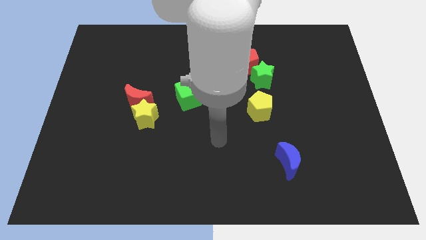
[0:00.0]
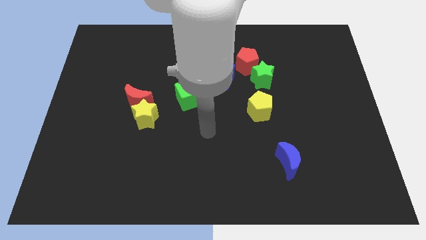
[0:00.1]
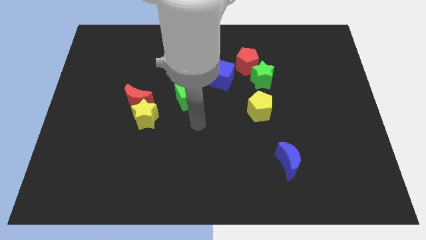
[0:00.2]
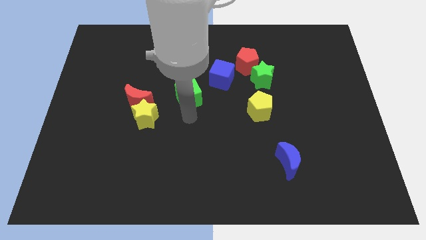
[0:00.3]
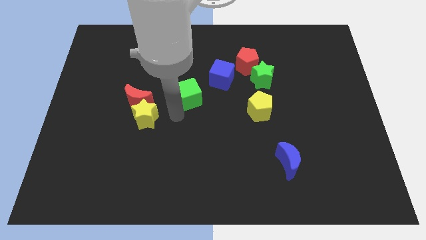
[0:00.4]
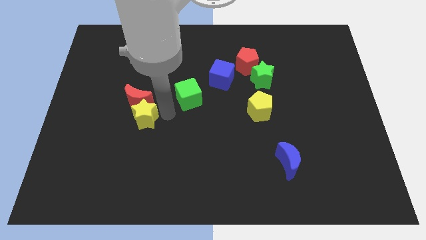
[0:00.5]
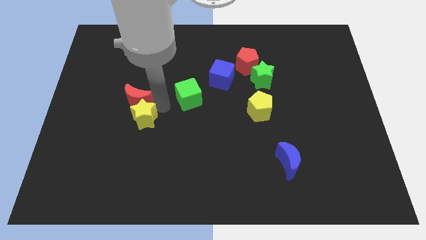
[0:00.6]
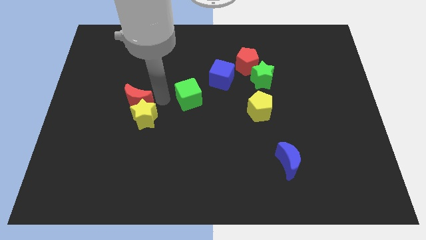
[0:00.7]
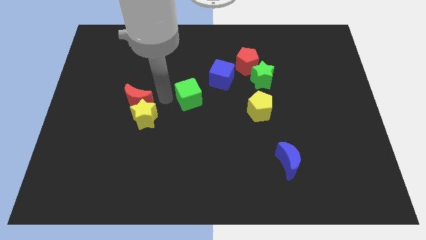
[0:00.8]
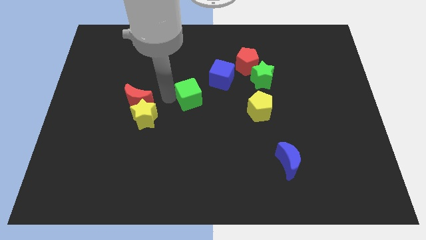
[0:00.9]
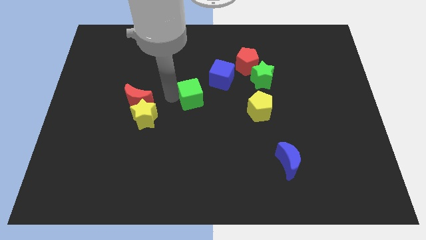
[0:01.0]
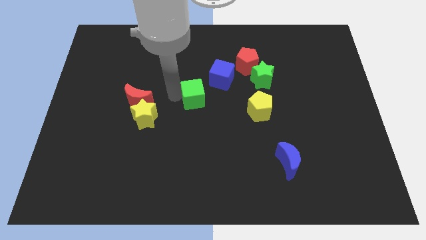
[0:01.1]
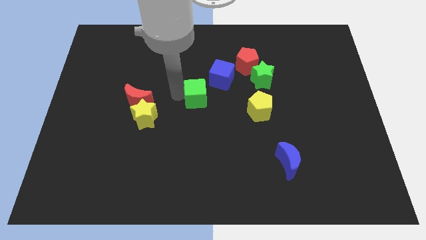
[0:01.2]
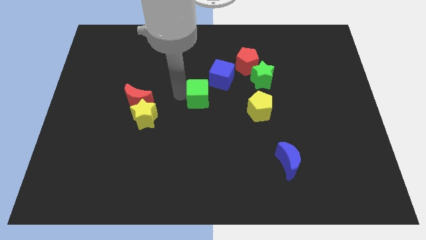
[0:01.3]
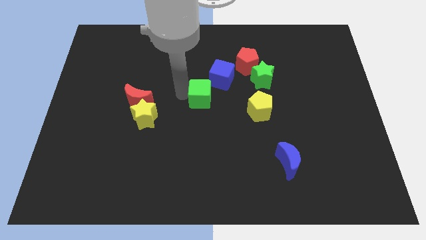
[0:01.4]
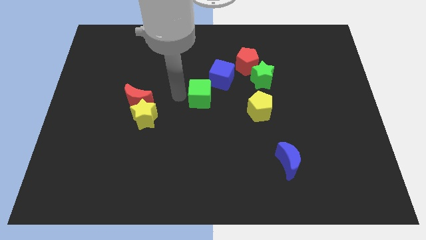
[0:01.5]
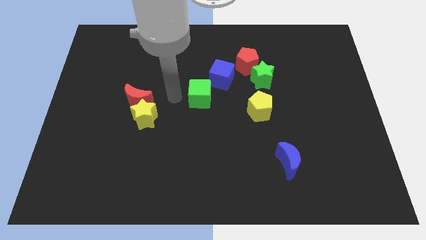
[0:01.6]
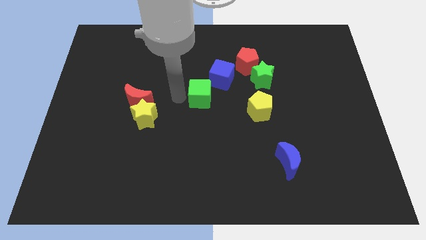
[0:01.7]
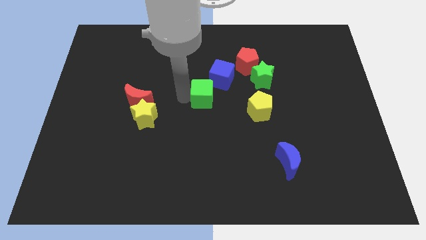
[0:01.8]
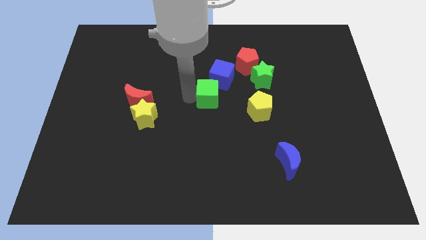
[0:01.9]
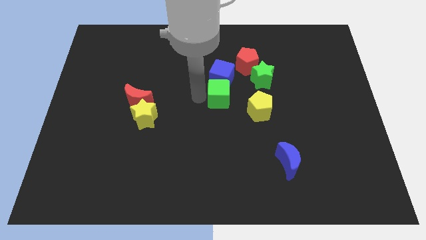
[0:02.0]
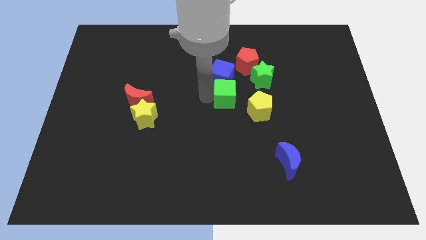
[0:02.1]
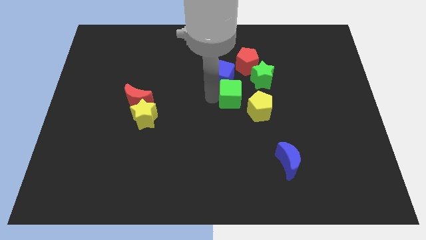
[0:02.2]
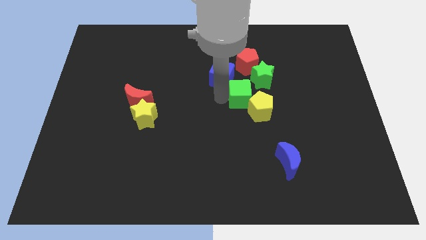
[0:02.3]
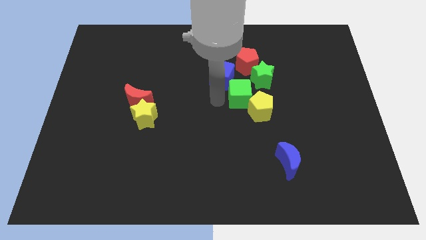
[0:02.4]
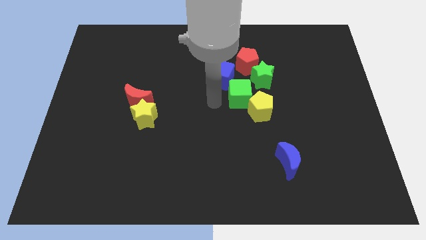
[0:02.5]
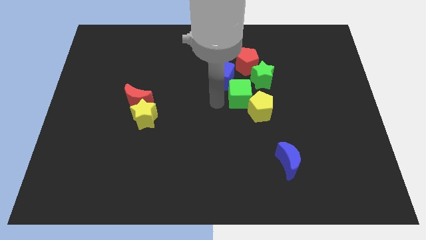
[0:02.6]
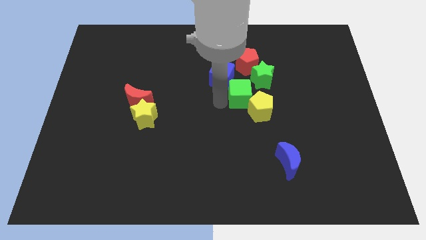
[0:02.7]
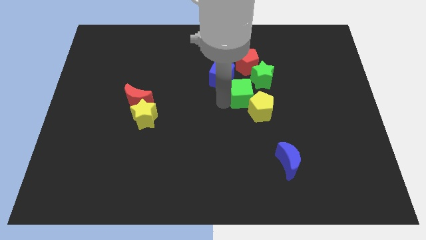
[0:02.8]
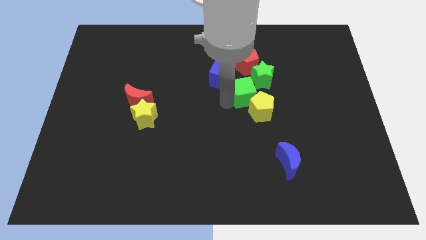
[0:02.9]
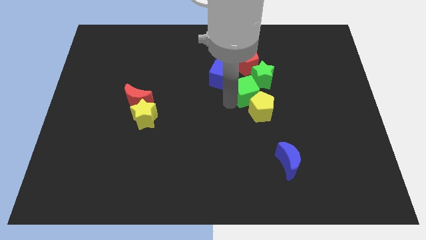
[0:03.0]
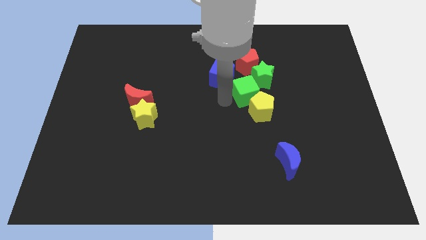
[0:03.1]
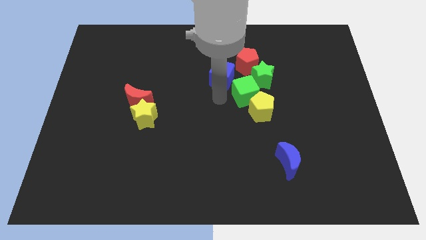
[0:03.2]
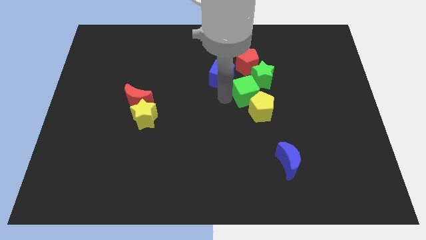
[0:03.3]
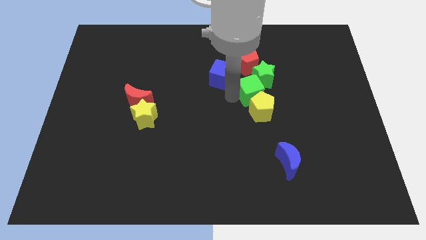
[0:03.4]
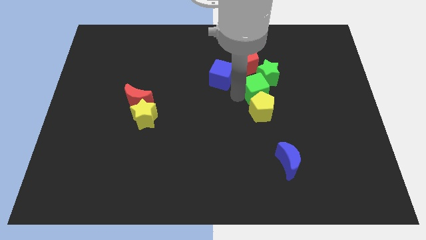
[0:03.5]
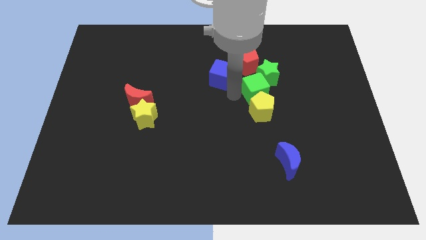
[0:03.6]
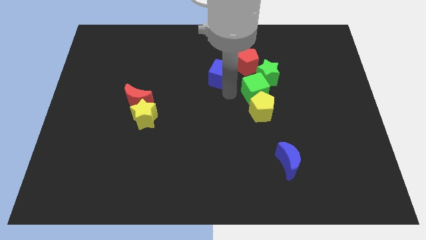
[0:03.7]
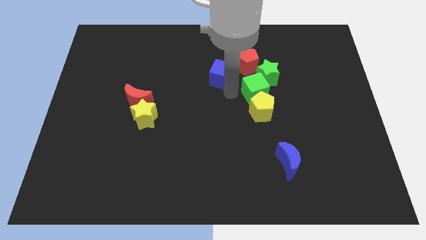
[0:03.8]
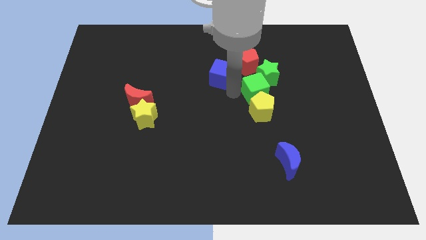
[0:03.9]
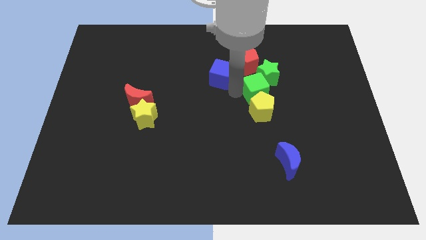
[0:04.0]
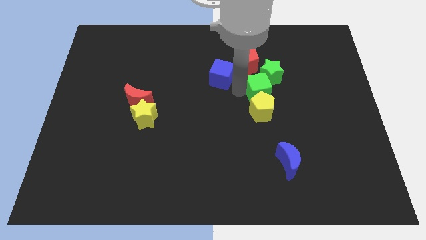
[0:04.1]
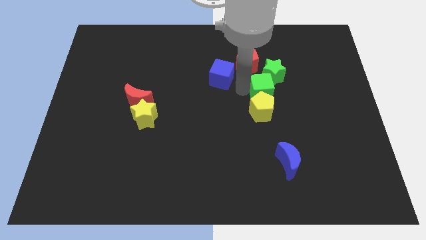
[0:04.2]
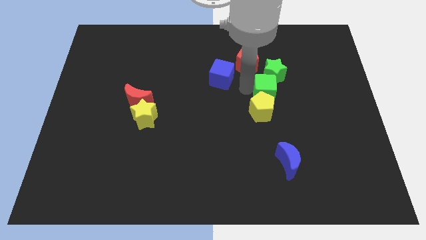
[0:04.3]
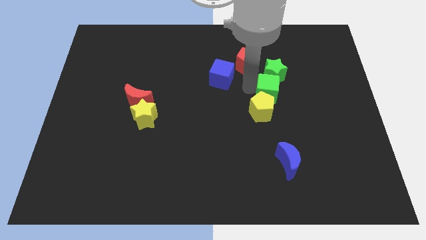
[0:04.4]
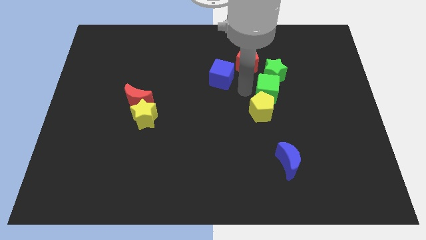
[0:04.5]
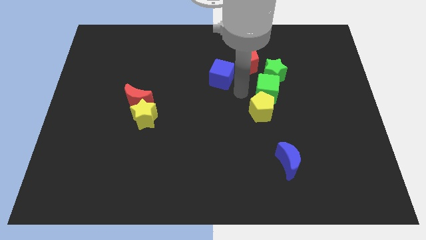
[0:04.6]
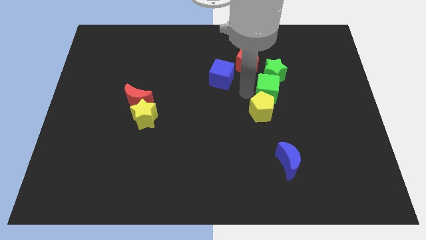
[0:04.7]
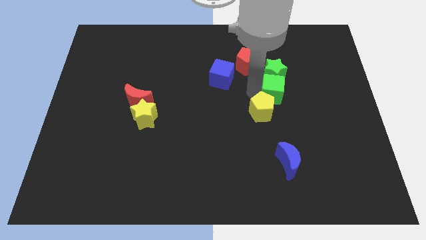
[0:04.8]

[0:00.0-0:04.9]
slide the green cube right

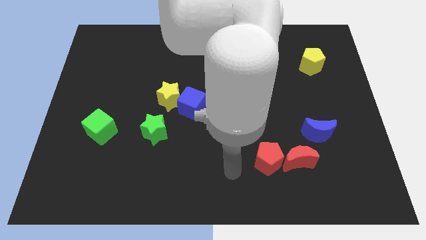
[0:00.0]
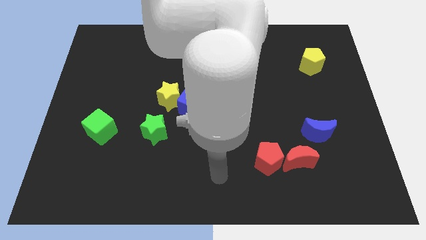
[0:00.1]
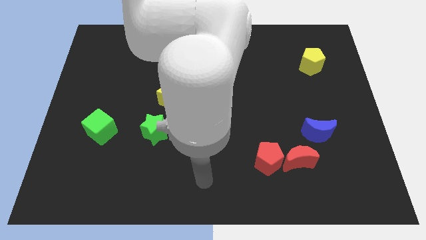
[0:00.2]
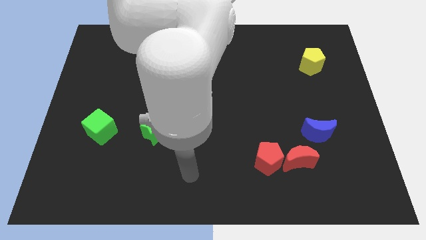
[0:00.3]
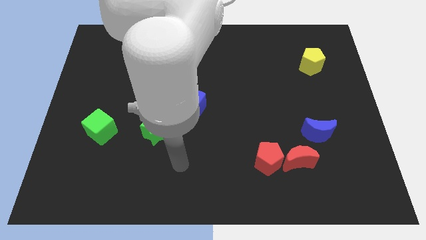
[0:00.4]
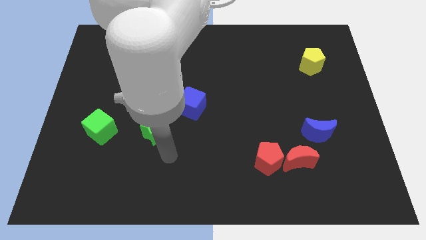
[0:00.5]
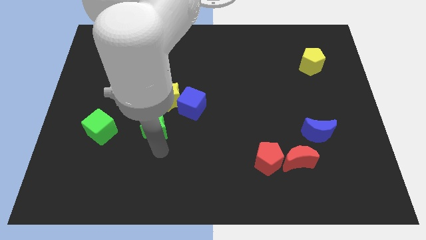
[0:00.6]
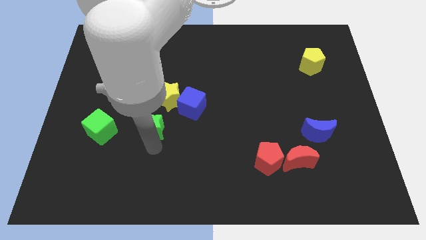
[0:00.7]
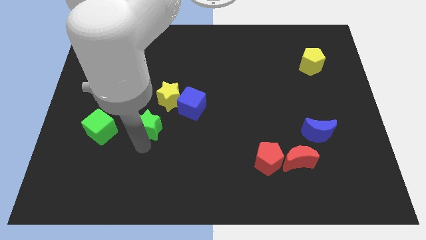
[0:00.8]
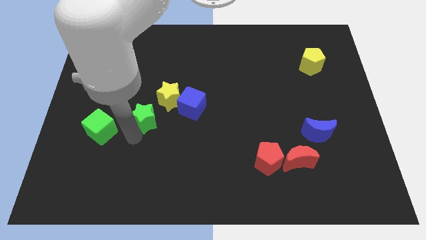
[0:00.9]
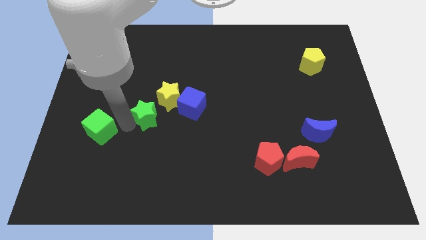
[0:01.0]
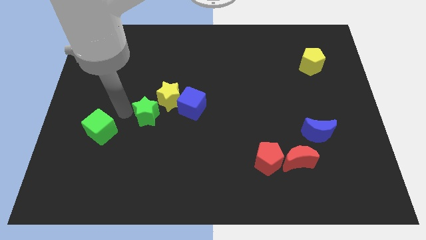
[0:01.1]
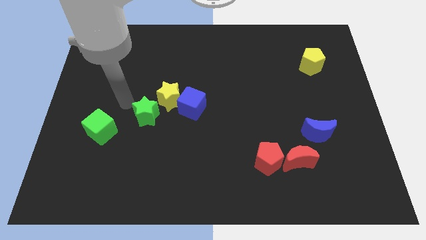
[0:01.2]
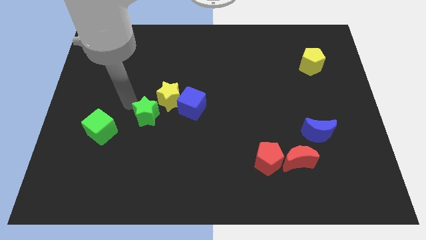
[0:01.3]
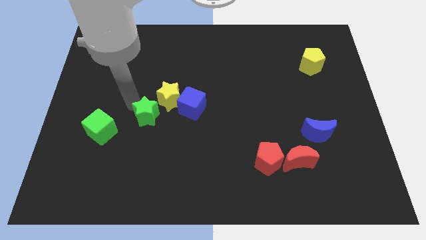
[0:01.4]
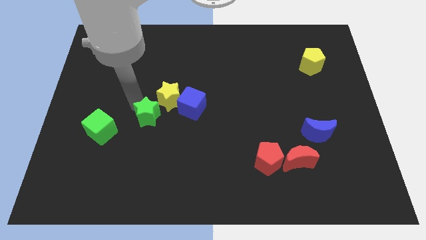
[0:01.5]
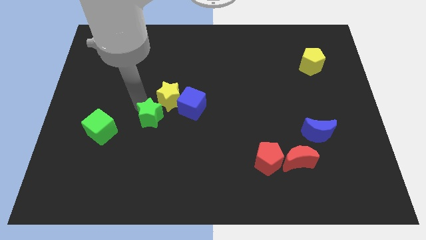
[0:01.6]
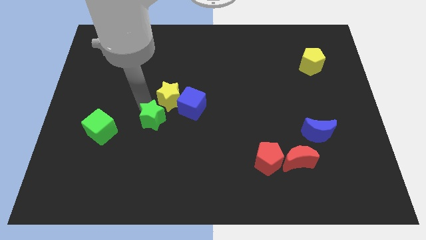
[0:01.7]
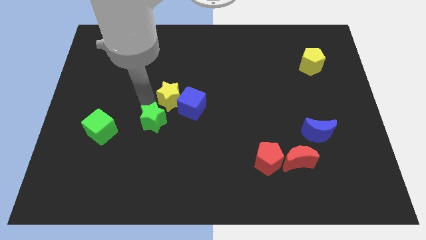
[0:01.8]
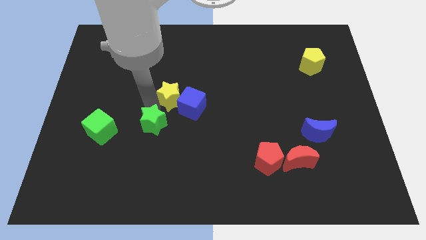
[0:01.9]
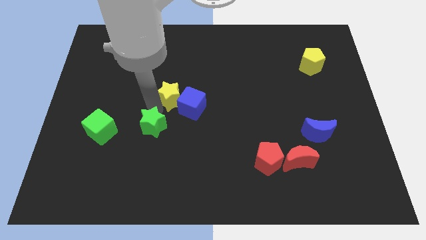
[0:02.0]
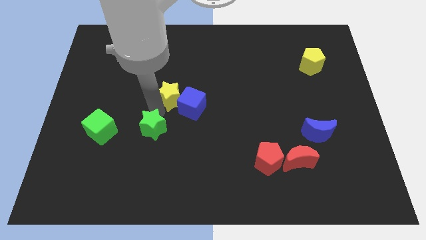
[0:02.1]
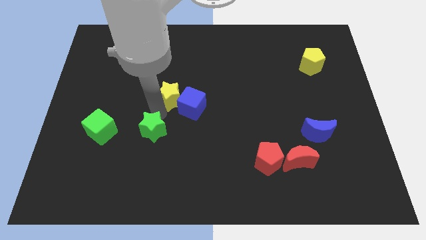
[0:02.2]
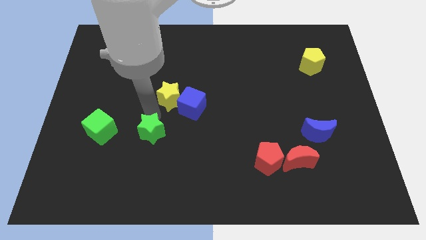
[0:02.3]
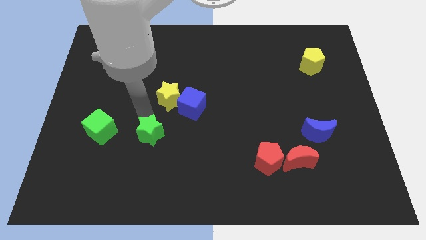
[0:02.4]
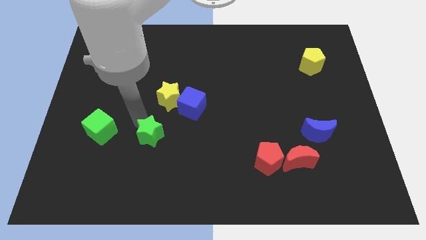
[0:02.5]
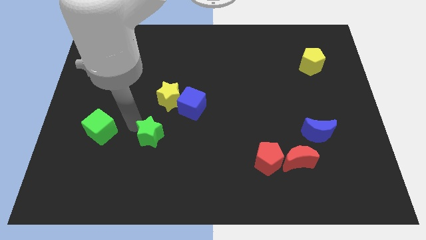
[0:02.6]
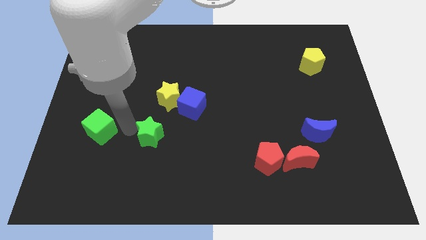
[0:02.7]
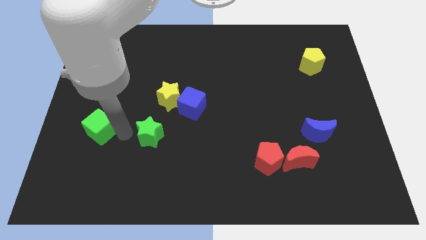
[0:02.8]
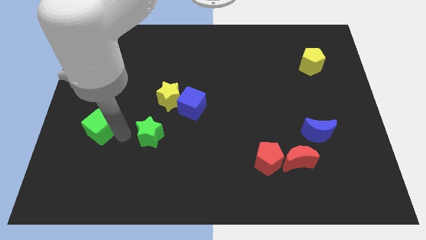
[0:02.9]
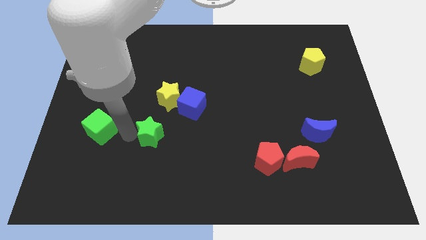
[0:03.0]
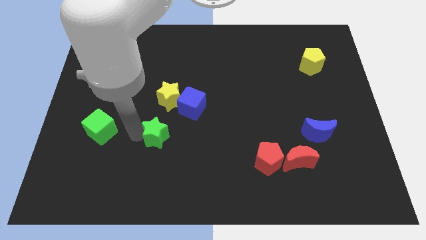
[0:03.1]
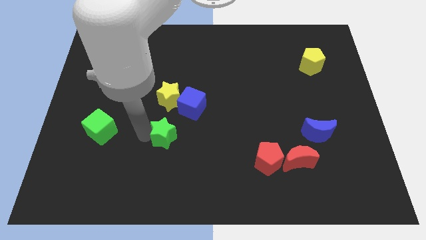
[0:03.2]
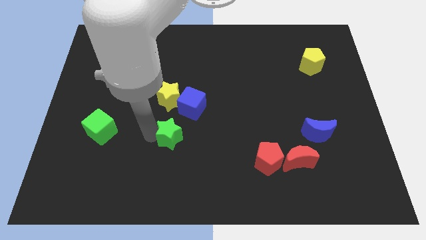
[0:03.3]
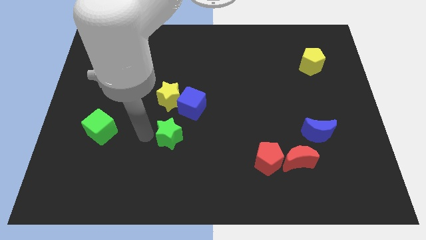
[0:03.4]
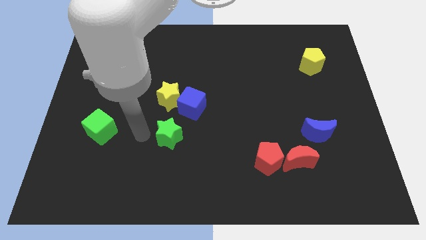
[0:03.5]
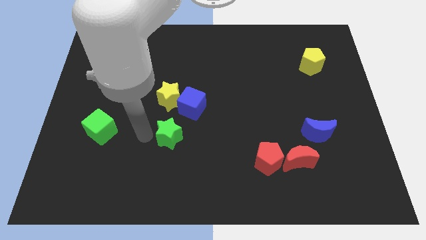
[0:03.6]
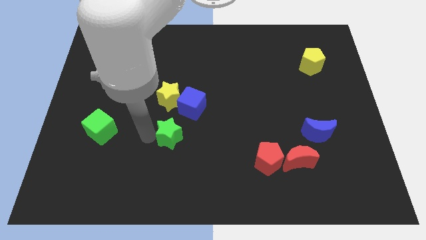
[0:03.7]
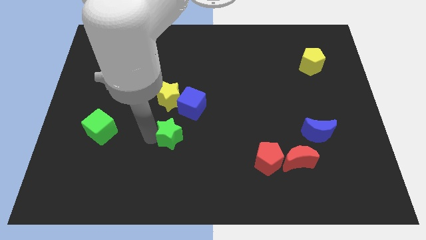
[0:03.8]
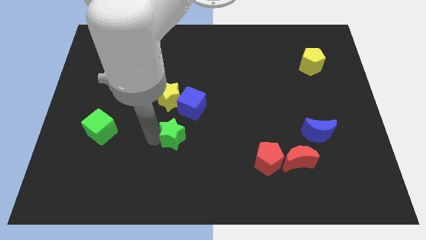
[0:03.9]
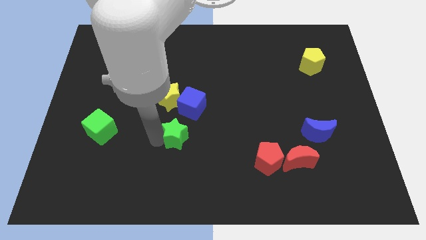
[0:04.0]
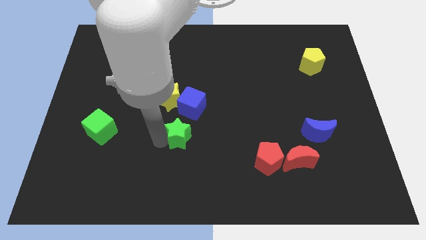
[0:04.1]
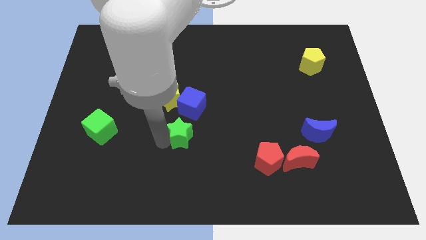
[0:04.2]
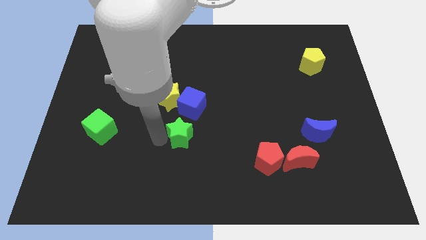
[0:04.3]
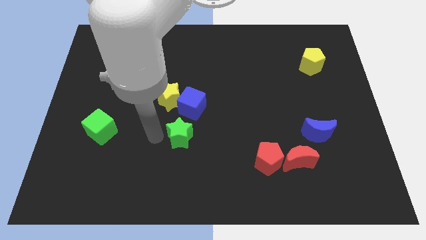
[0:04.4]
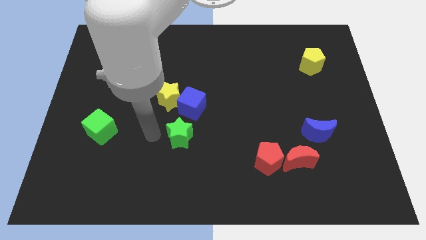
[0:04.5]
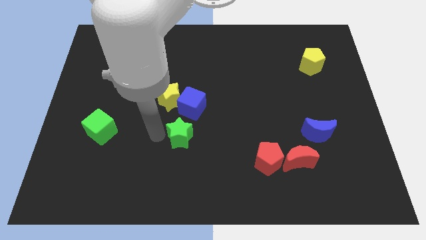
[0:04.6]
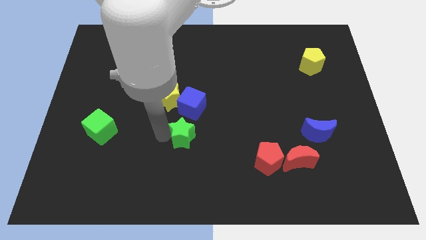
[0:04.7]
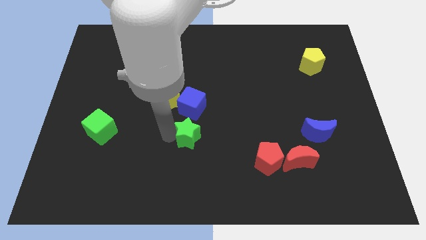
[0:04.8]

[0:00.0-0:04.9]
slightly move the green star right
